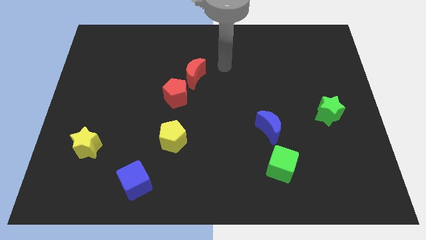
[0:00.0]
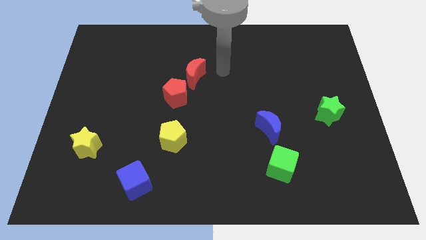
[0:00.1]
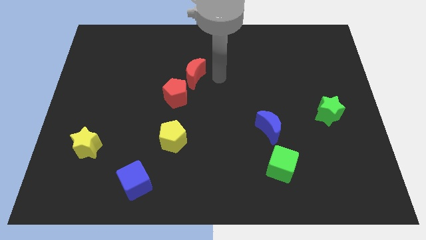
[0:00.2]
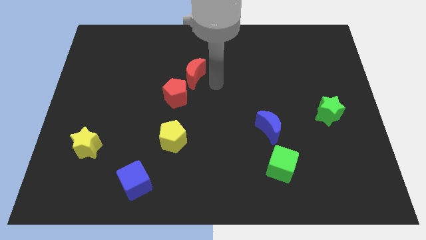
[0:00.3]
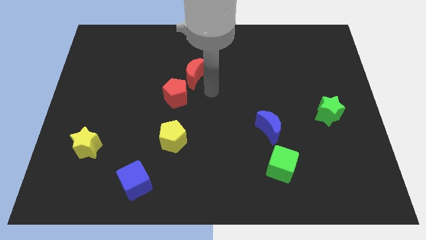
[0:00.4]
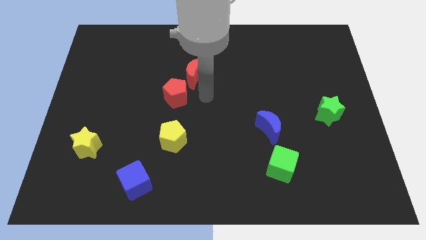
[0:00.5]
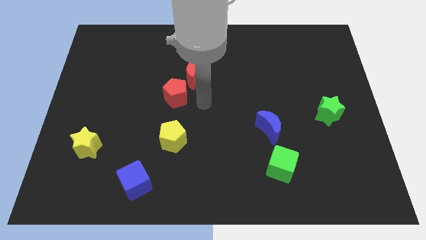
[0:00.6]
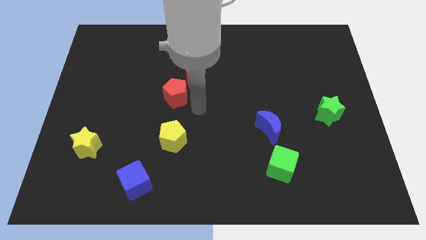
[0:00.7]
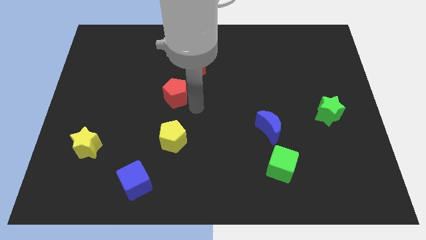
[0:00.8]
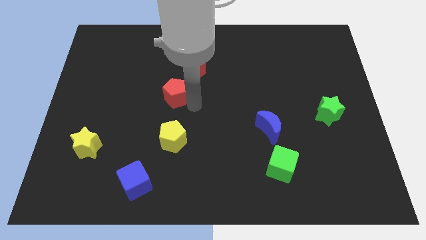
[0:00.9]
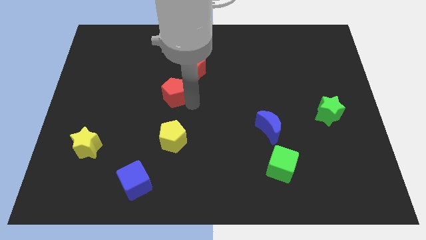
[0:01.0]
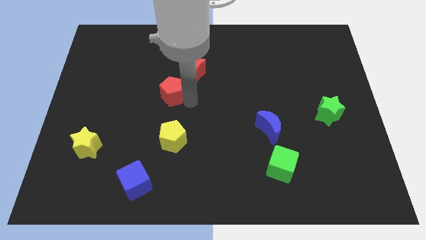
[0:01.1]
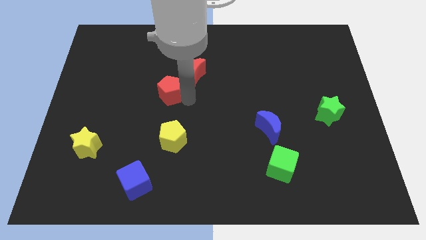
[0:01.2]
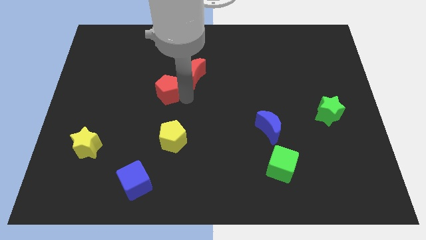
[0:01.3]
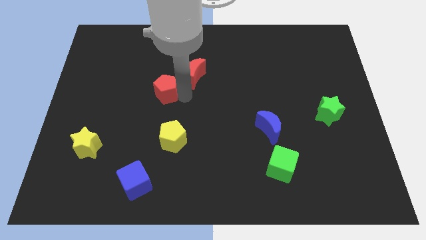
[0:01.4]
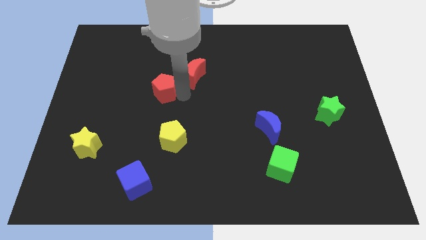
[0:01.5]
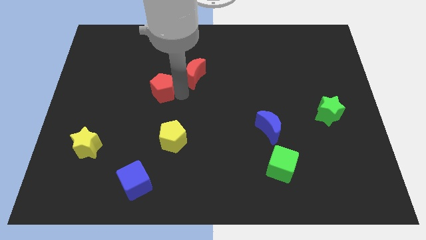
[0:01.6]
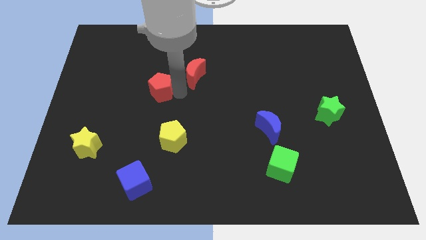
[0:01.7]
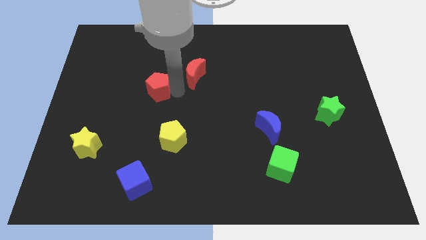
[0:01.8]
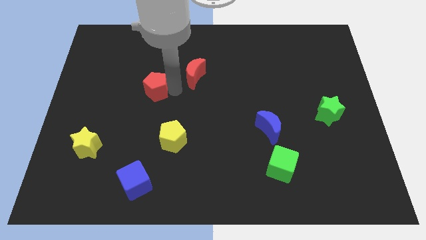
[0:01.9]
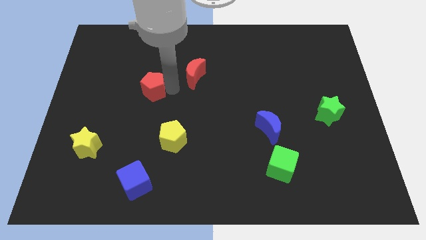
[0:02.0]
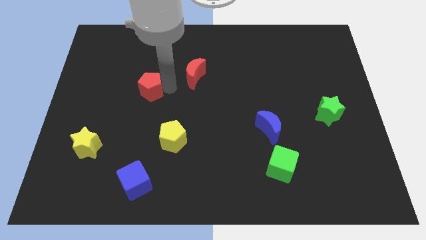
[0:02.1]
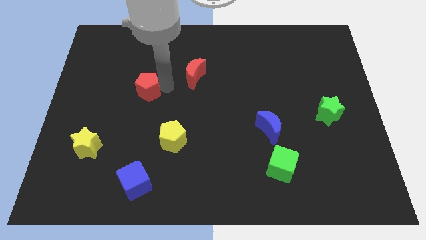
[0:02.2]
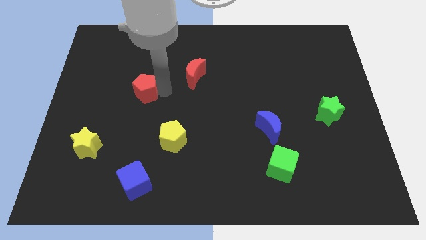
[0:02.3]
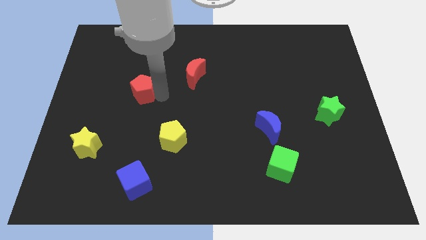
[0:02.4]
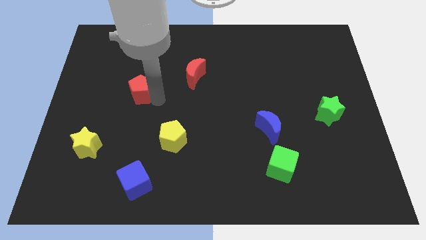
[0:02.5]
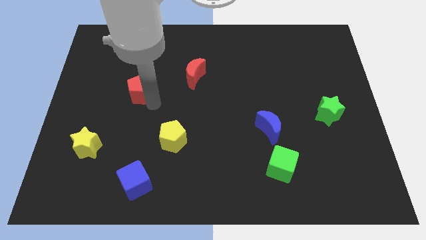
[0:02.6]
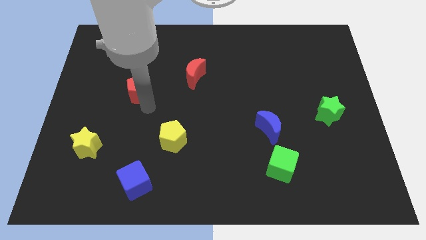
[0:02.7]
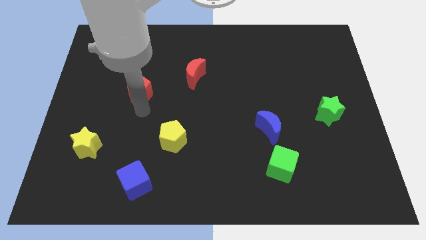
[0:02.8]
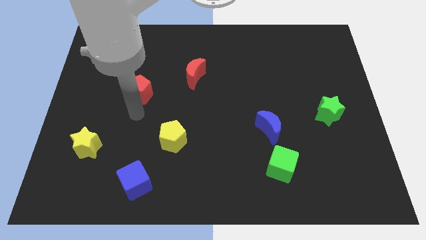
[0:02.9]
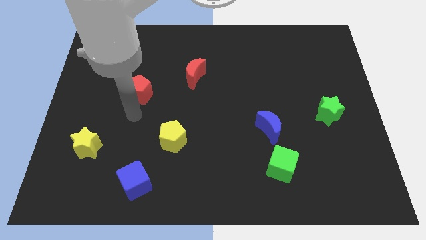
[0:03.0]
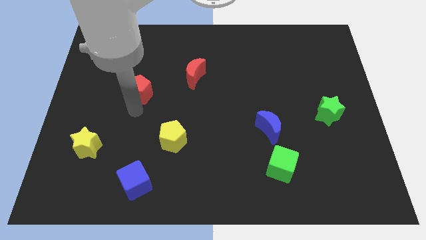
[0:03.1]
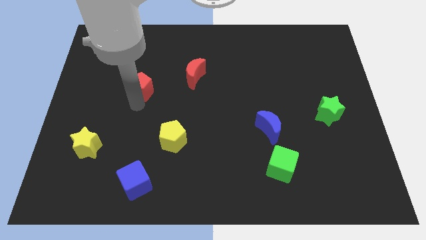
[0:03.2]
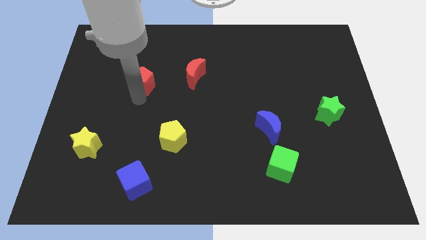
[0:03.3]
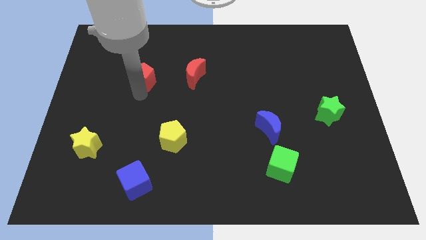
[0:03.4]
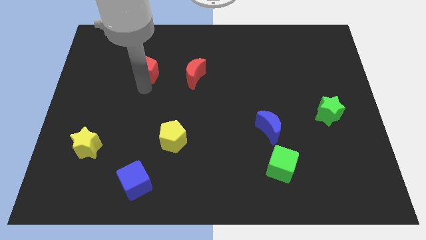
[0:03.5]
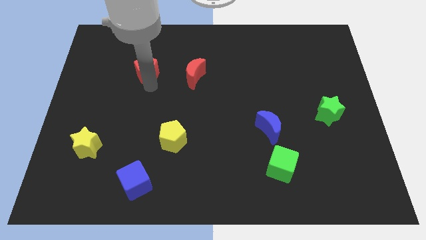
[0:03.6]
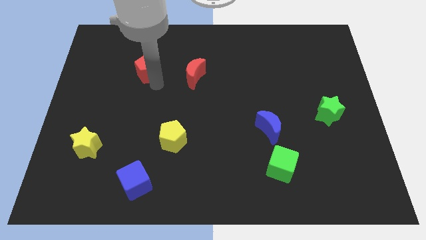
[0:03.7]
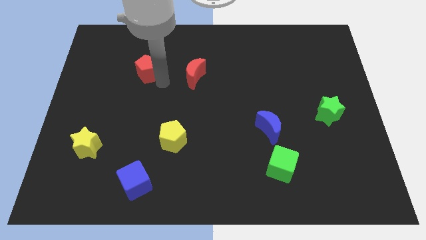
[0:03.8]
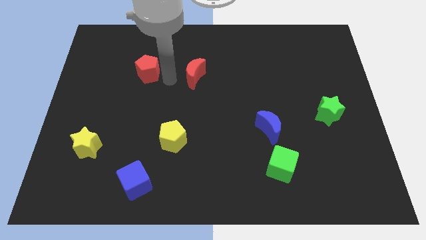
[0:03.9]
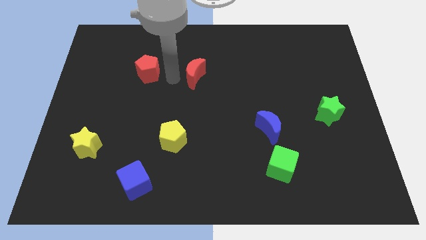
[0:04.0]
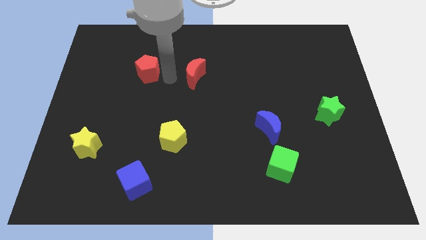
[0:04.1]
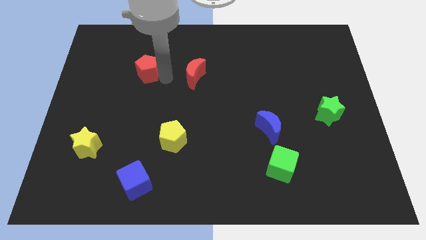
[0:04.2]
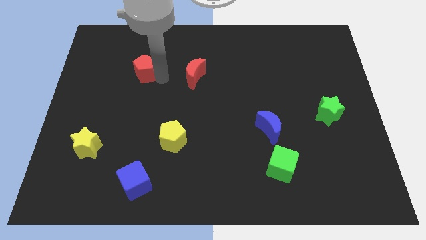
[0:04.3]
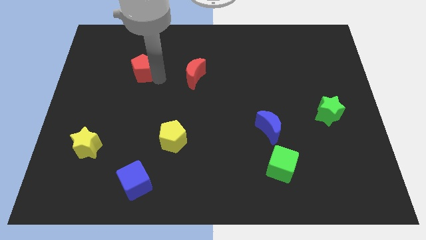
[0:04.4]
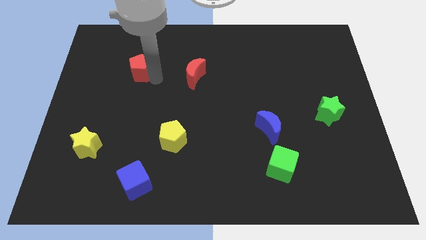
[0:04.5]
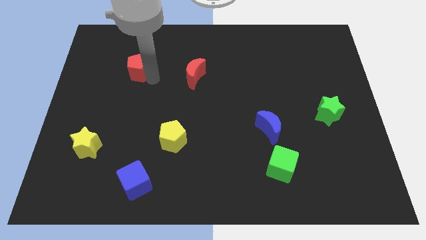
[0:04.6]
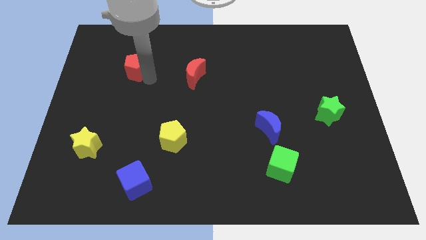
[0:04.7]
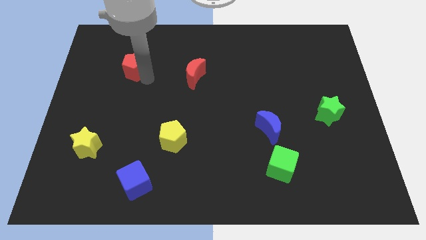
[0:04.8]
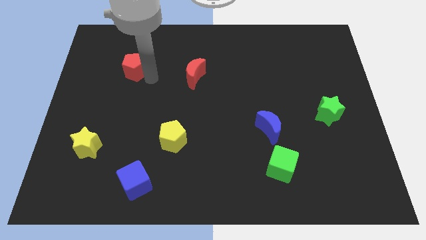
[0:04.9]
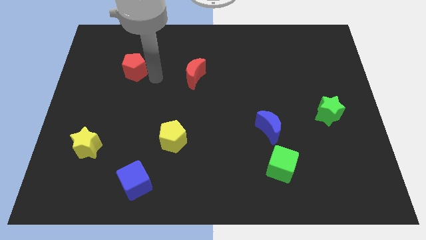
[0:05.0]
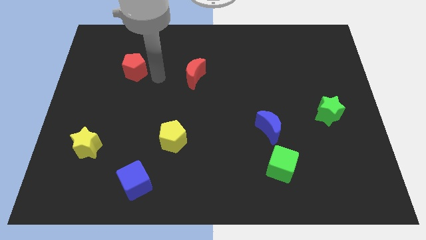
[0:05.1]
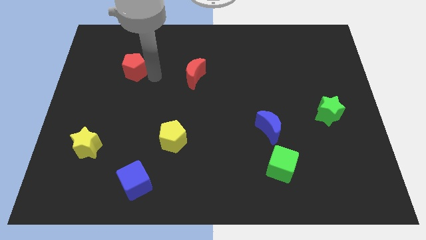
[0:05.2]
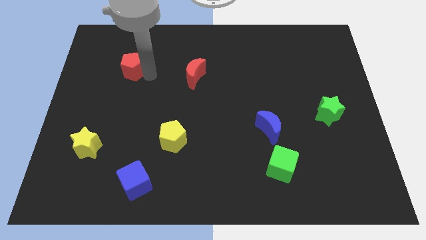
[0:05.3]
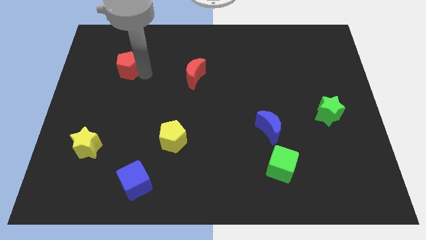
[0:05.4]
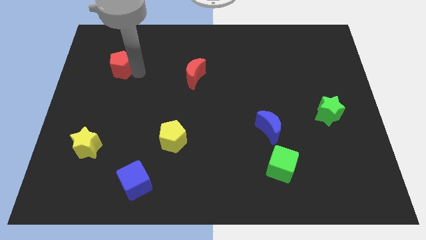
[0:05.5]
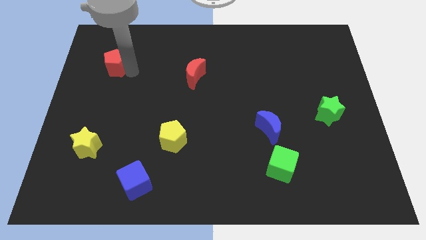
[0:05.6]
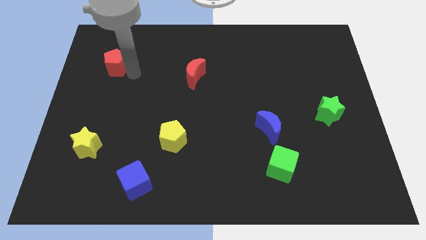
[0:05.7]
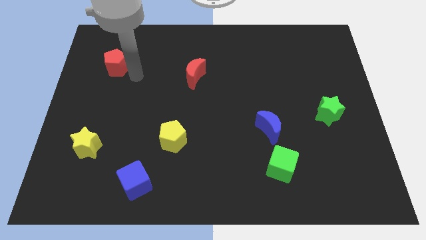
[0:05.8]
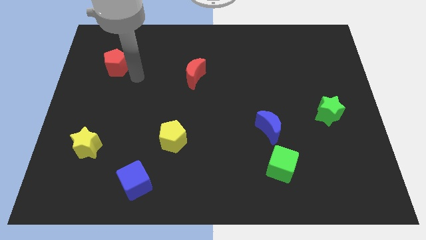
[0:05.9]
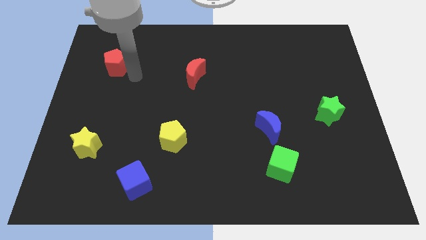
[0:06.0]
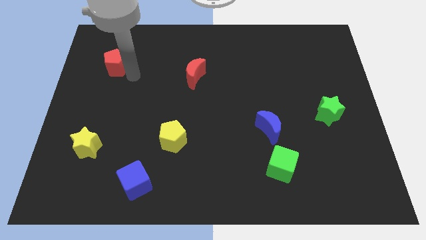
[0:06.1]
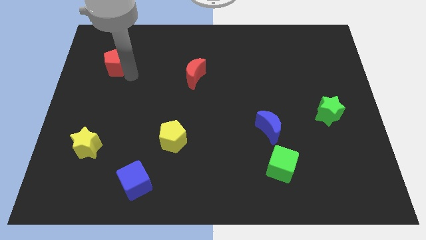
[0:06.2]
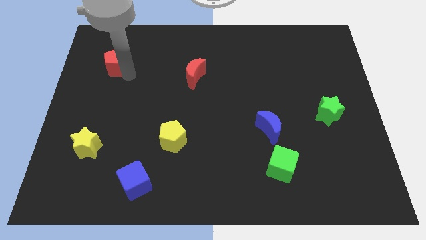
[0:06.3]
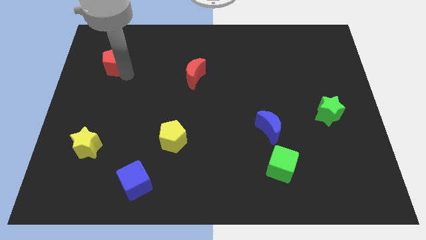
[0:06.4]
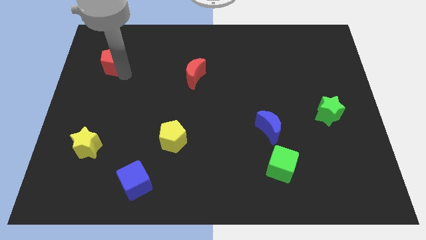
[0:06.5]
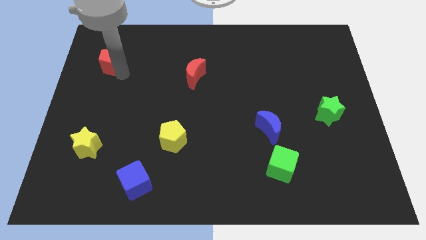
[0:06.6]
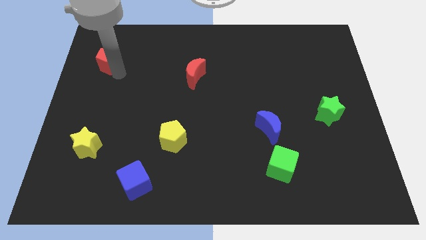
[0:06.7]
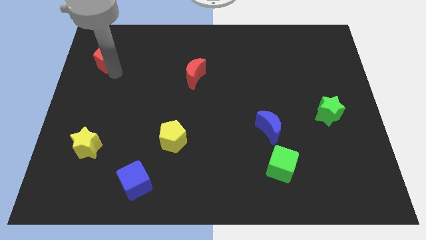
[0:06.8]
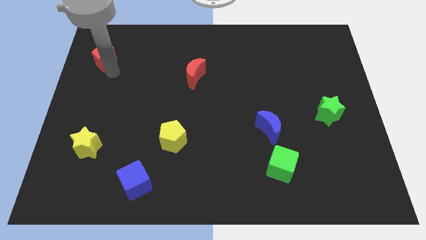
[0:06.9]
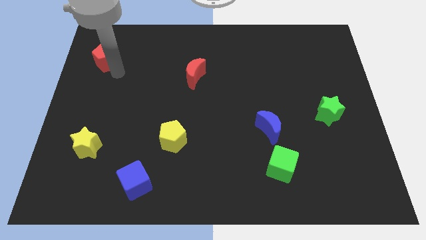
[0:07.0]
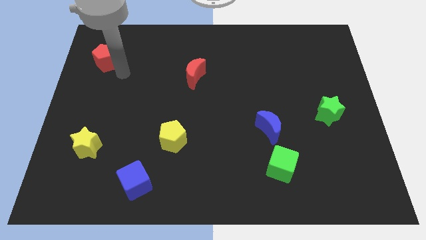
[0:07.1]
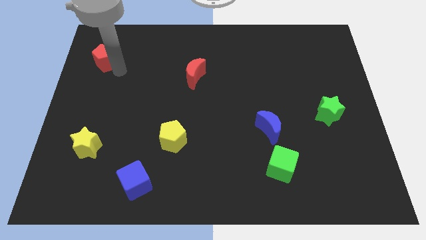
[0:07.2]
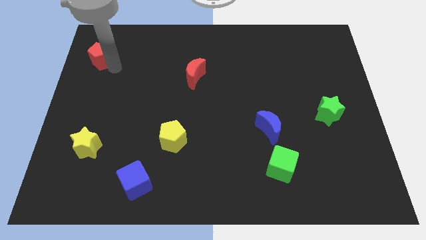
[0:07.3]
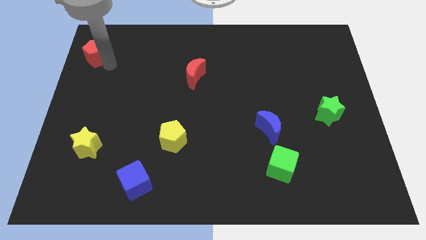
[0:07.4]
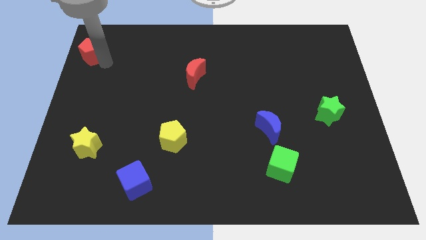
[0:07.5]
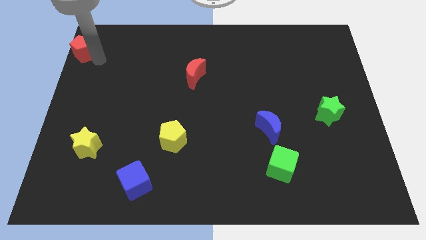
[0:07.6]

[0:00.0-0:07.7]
slide the red pentagon to the top left of the board
